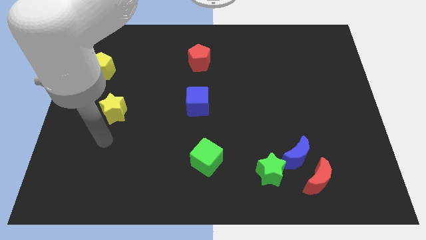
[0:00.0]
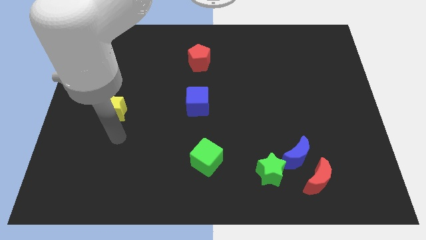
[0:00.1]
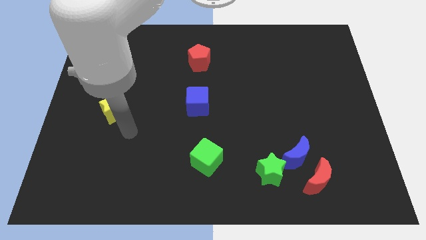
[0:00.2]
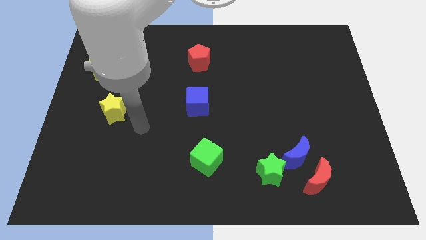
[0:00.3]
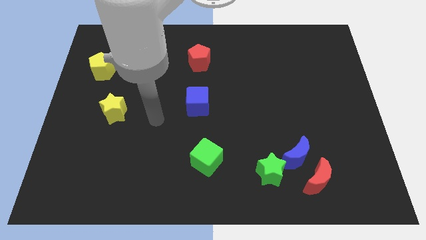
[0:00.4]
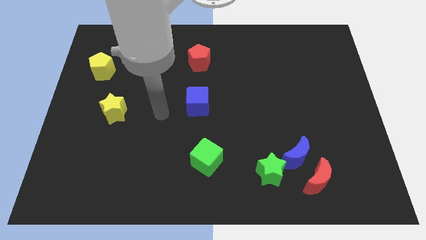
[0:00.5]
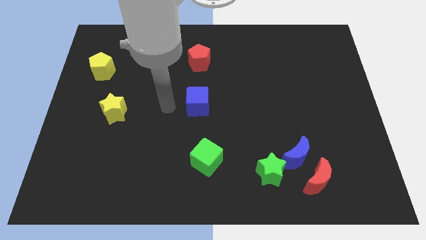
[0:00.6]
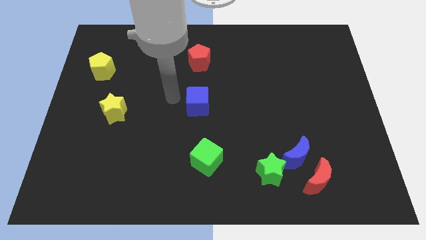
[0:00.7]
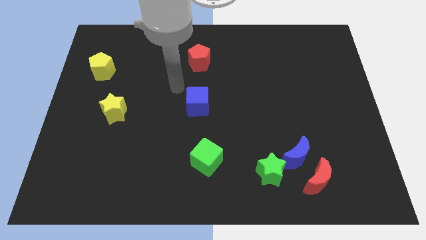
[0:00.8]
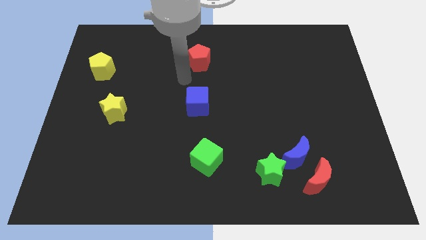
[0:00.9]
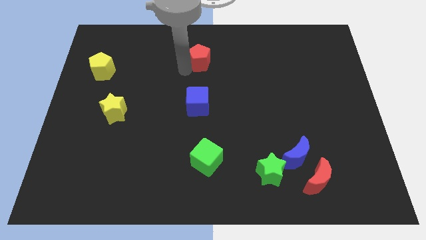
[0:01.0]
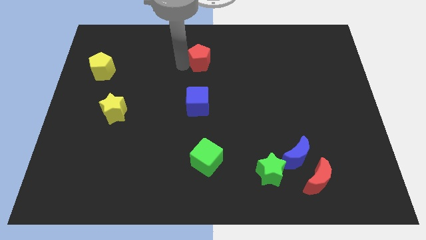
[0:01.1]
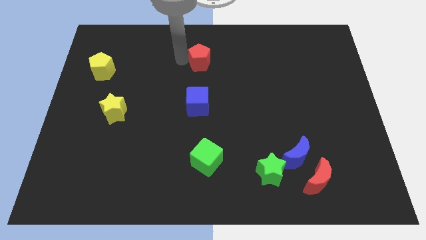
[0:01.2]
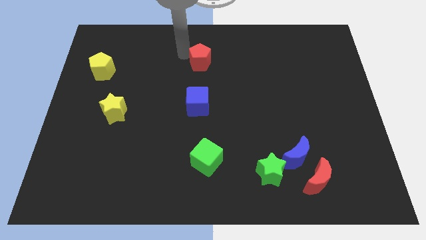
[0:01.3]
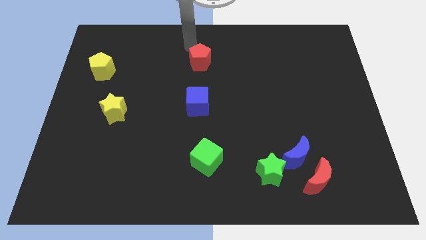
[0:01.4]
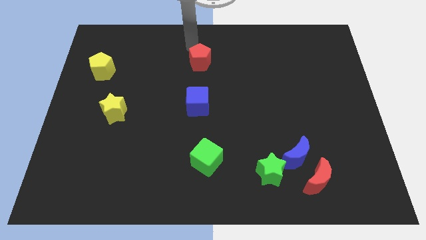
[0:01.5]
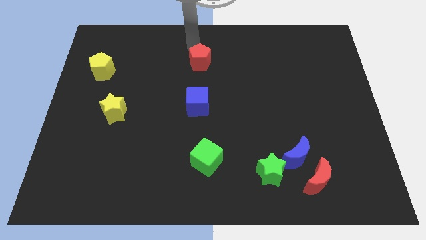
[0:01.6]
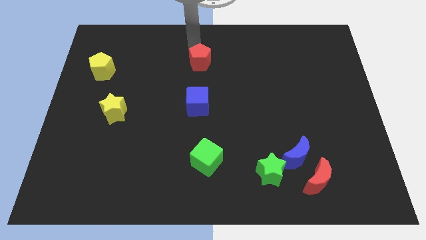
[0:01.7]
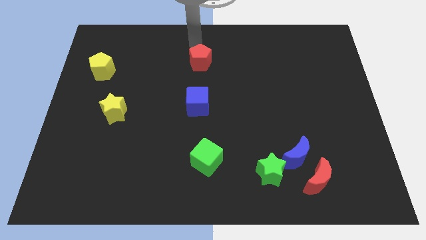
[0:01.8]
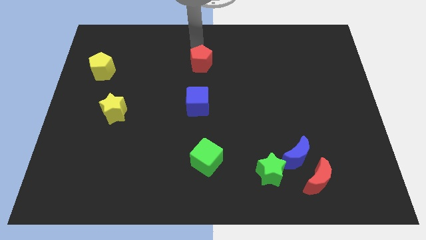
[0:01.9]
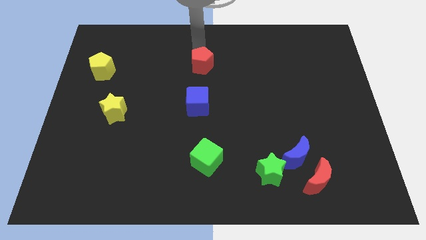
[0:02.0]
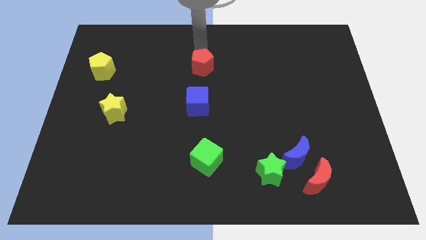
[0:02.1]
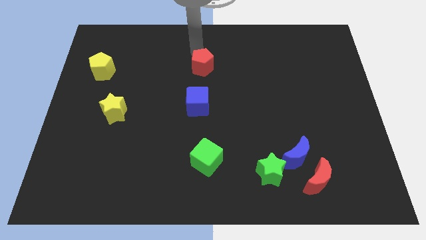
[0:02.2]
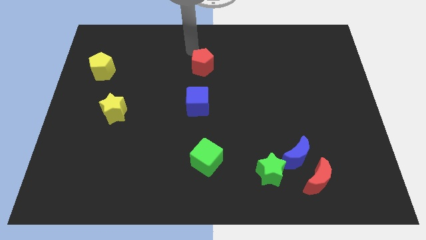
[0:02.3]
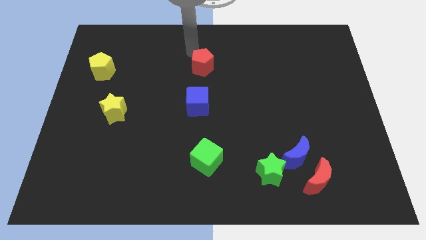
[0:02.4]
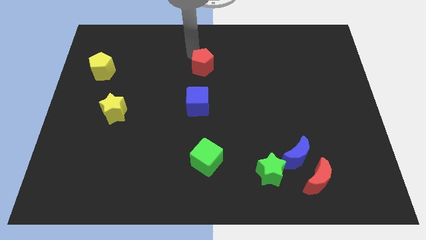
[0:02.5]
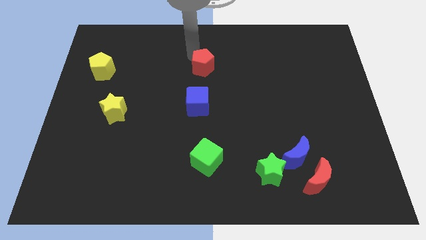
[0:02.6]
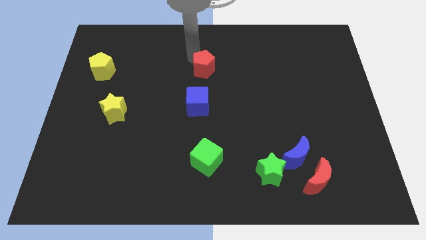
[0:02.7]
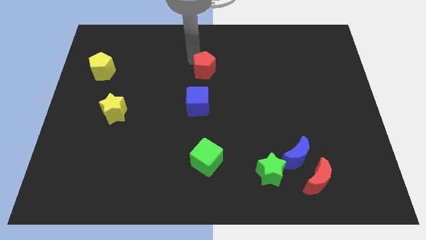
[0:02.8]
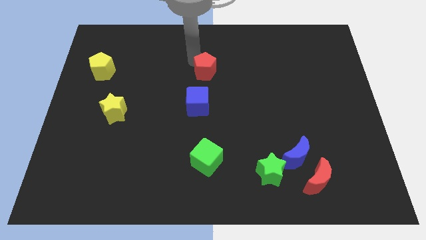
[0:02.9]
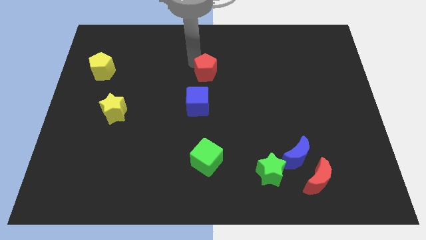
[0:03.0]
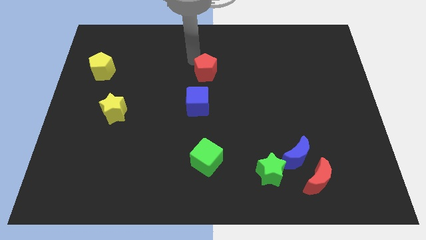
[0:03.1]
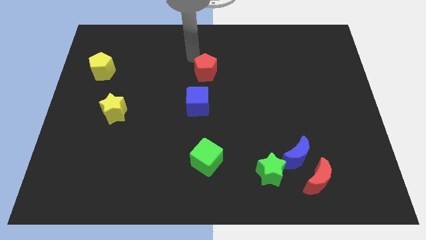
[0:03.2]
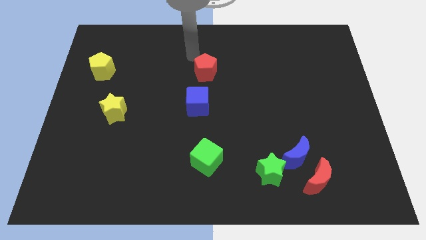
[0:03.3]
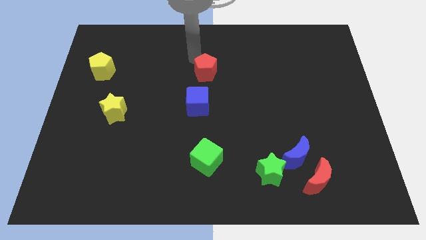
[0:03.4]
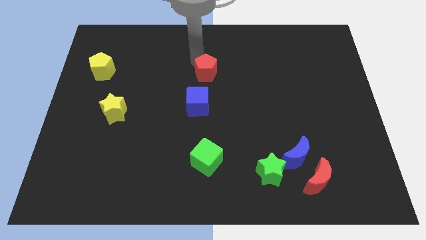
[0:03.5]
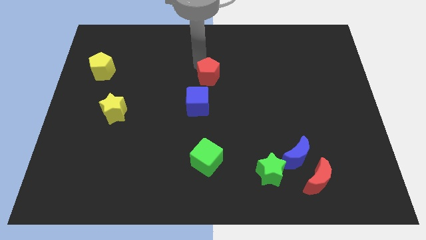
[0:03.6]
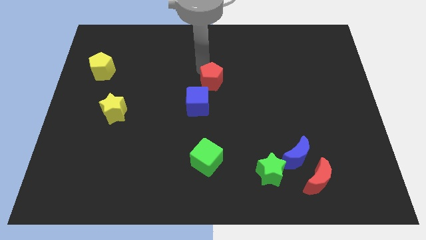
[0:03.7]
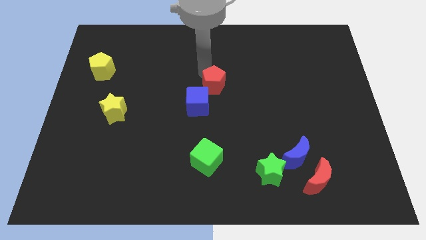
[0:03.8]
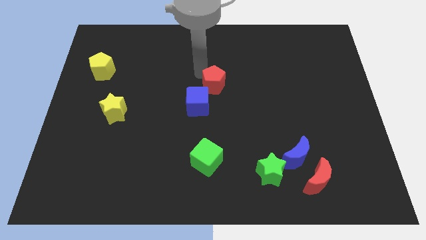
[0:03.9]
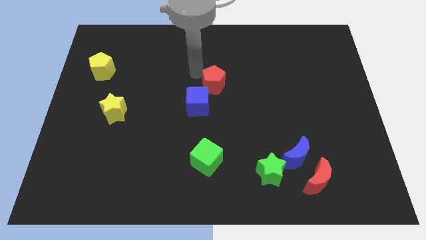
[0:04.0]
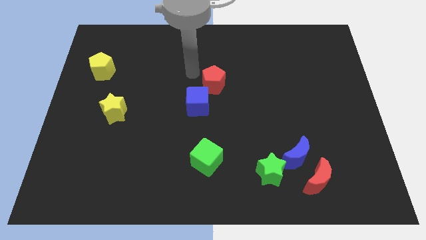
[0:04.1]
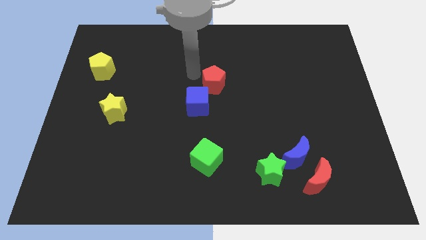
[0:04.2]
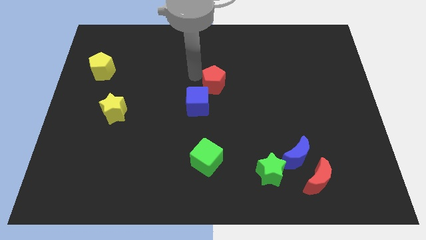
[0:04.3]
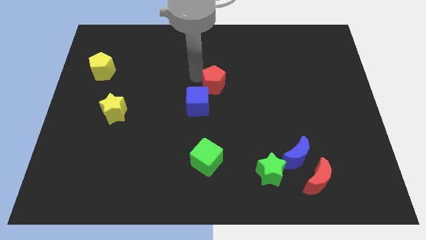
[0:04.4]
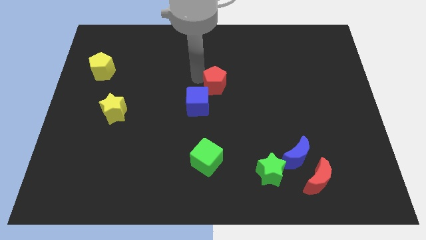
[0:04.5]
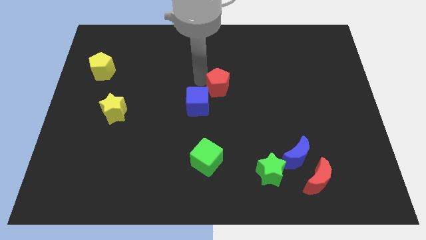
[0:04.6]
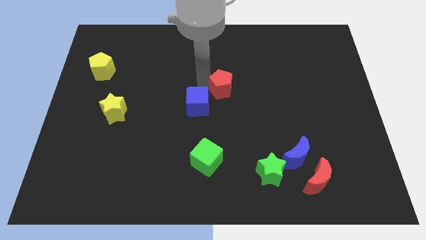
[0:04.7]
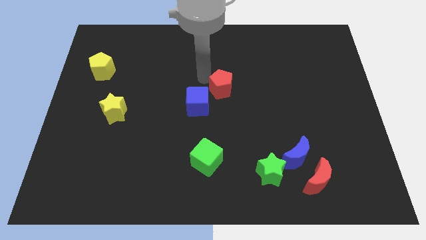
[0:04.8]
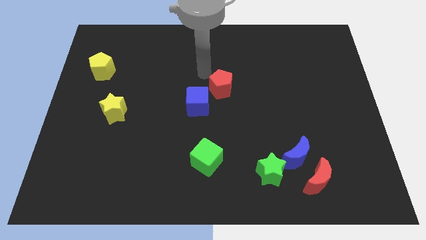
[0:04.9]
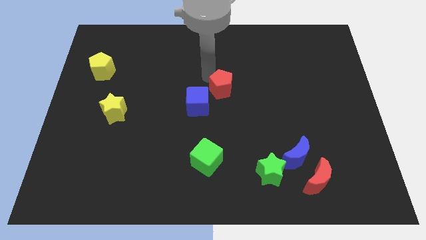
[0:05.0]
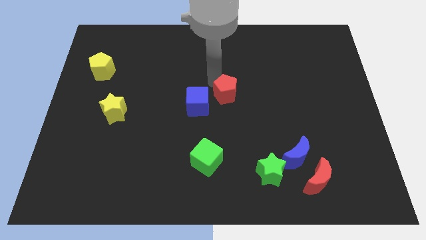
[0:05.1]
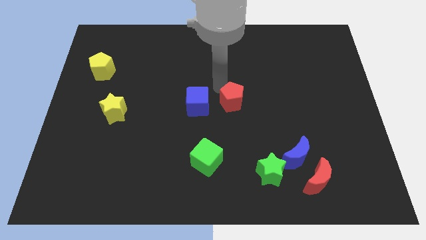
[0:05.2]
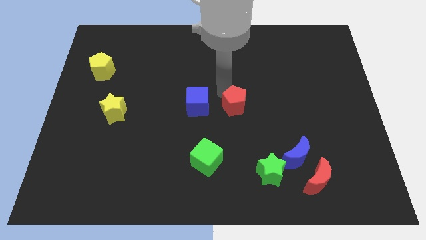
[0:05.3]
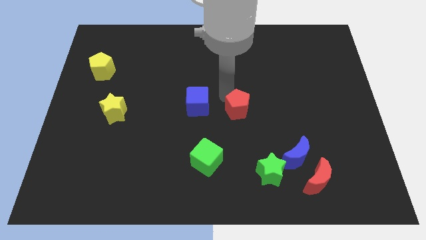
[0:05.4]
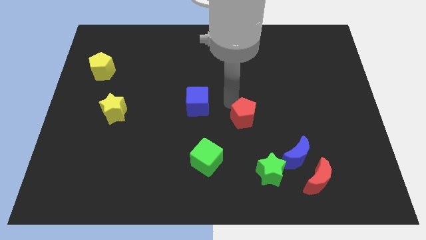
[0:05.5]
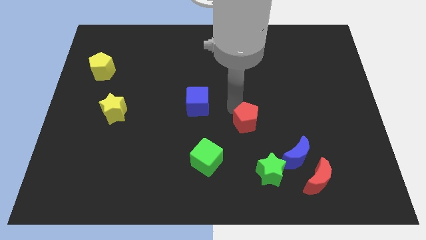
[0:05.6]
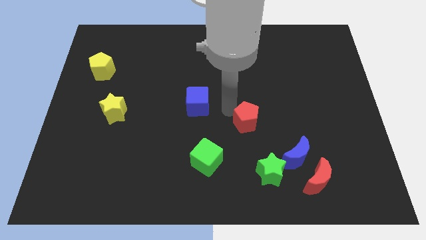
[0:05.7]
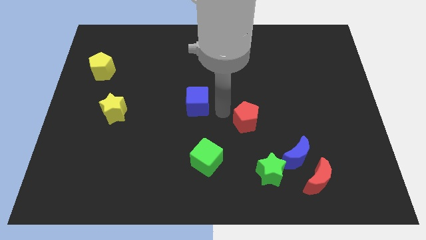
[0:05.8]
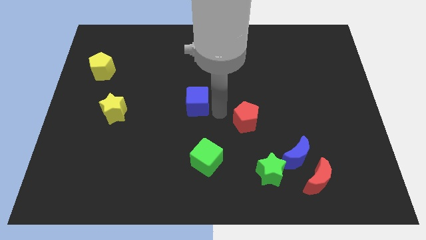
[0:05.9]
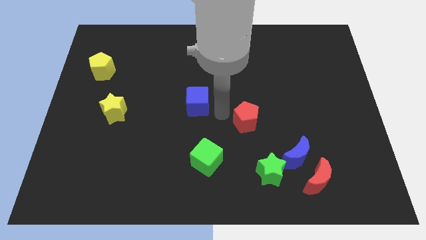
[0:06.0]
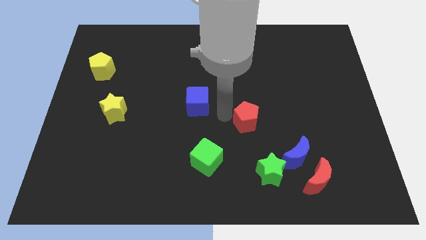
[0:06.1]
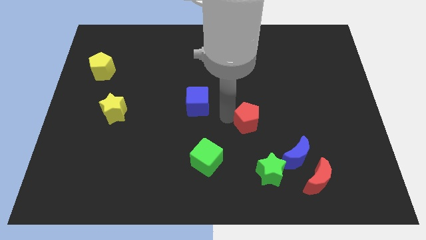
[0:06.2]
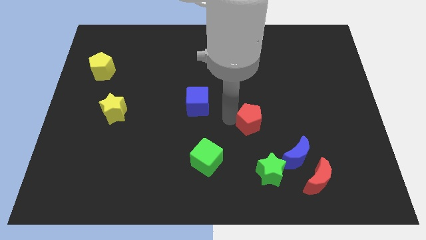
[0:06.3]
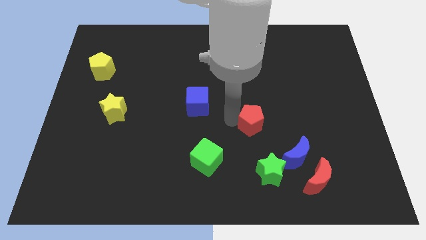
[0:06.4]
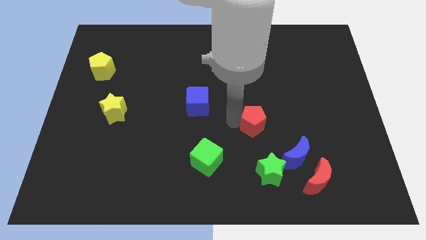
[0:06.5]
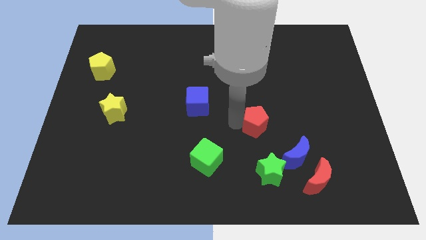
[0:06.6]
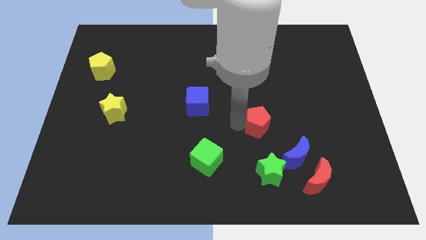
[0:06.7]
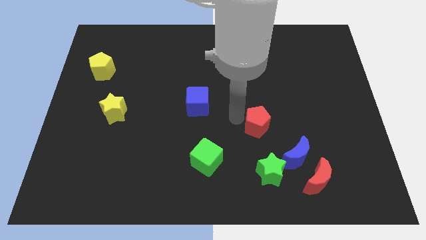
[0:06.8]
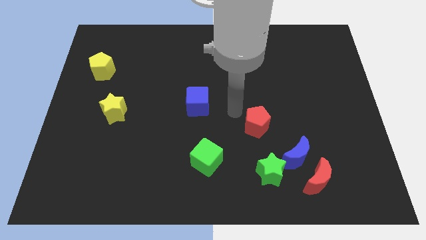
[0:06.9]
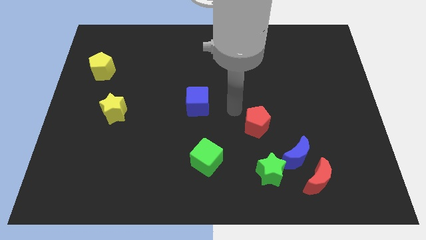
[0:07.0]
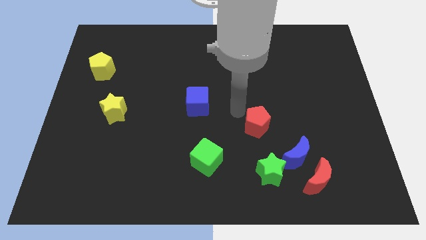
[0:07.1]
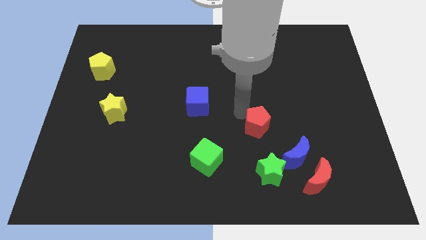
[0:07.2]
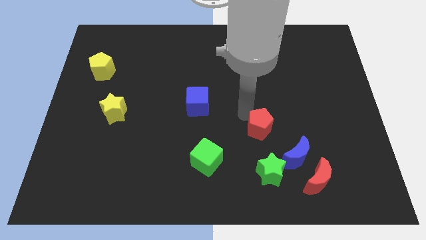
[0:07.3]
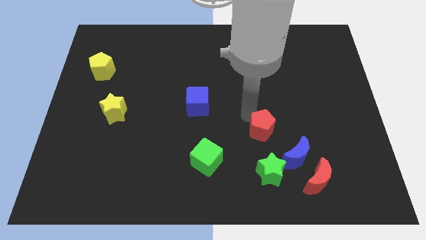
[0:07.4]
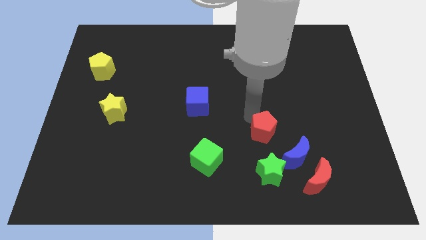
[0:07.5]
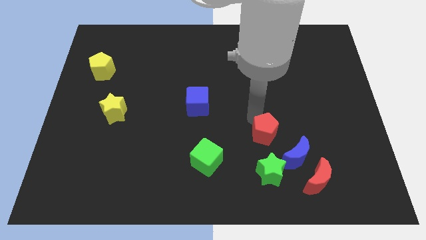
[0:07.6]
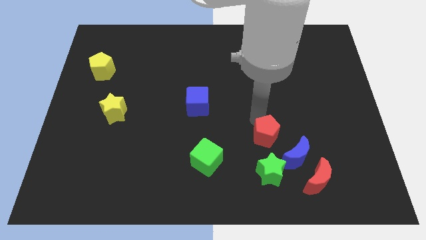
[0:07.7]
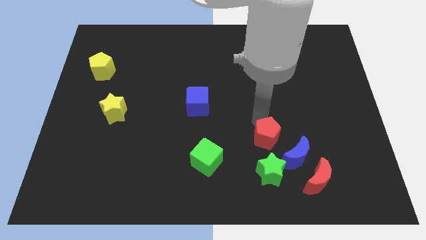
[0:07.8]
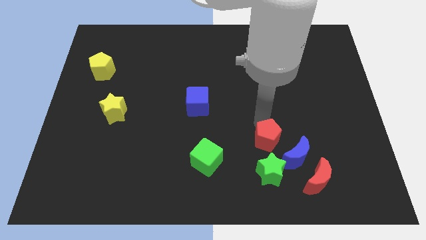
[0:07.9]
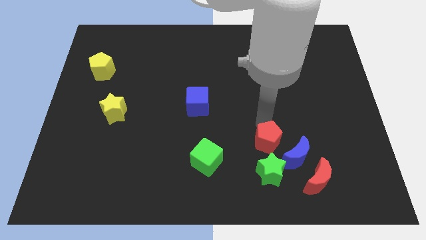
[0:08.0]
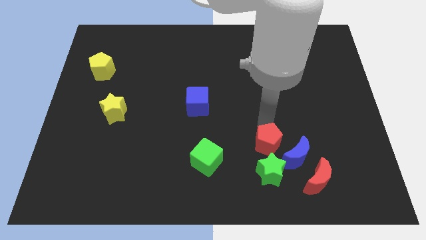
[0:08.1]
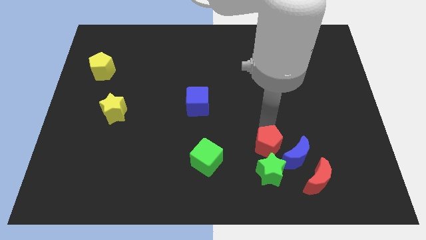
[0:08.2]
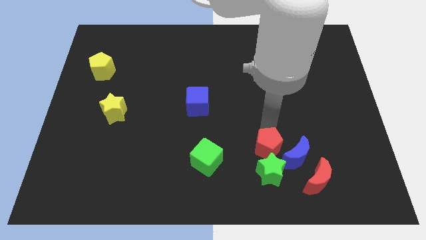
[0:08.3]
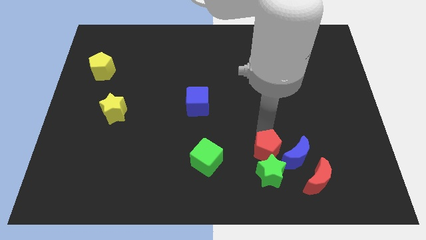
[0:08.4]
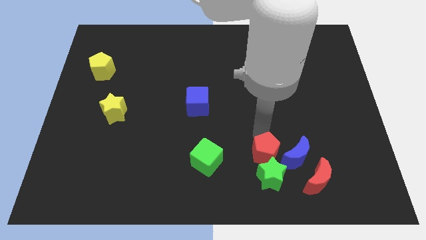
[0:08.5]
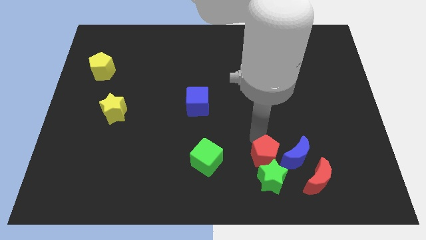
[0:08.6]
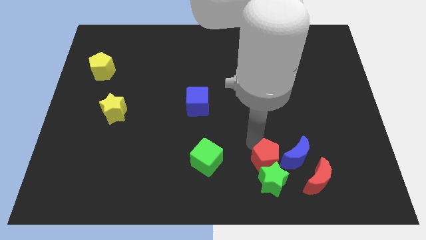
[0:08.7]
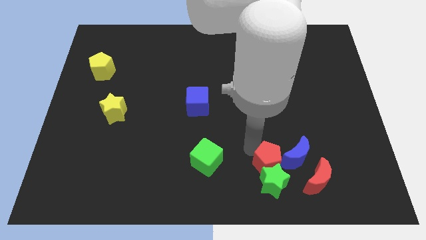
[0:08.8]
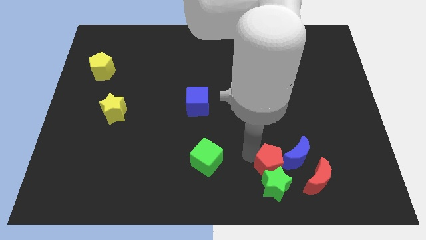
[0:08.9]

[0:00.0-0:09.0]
put the red pentagon next to the blue moon
